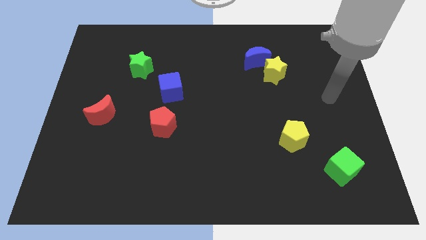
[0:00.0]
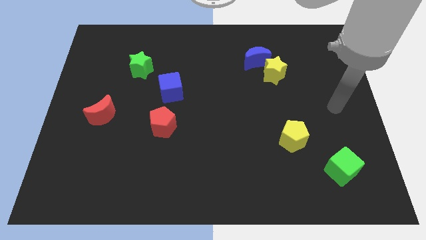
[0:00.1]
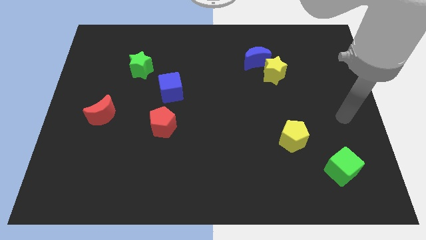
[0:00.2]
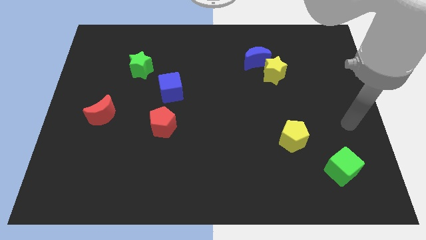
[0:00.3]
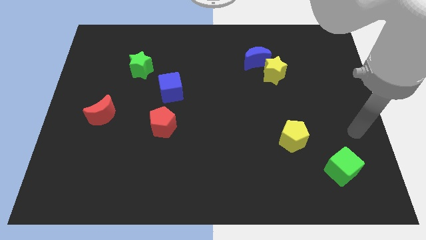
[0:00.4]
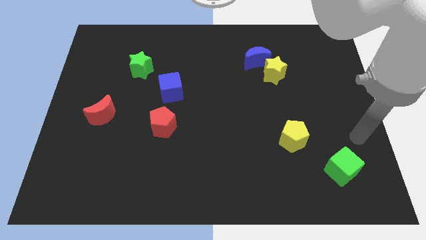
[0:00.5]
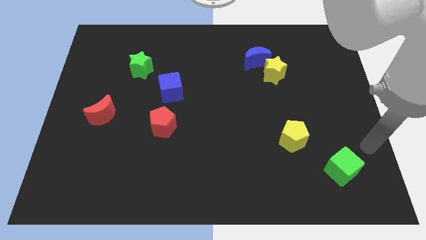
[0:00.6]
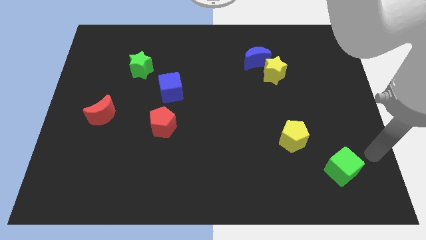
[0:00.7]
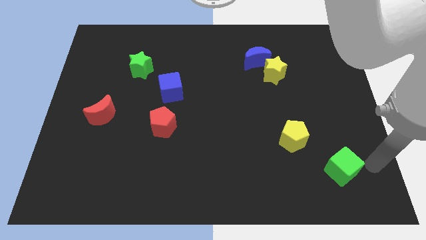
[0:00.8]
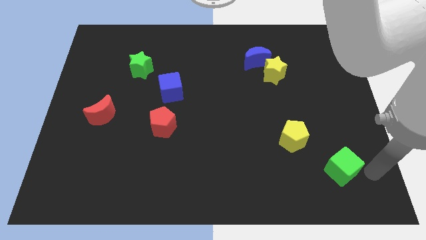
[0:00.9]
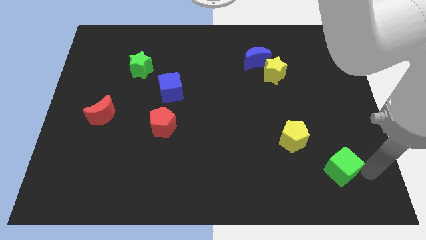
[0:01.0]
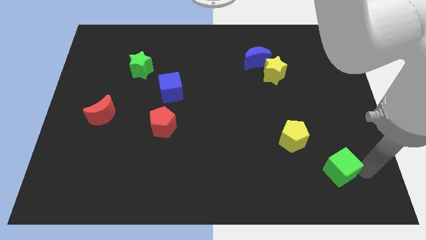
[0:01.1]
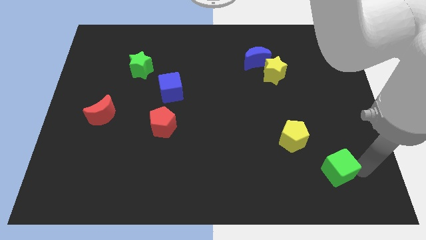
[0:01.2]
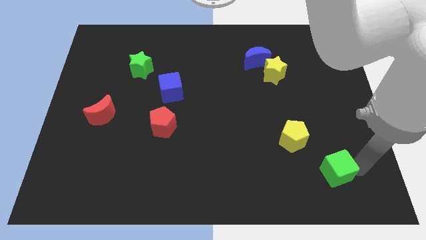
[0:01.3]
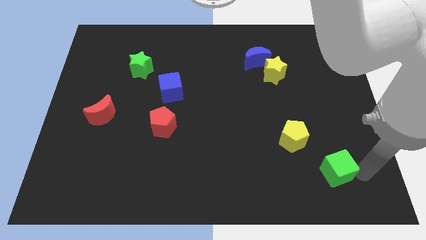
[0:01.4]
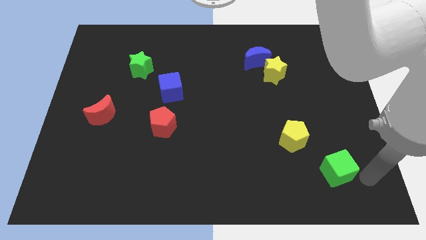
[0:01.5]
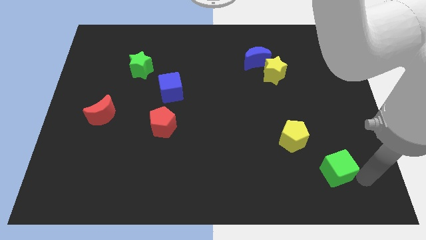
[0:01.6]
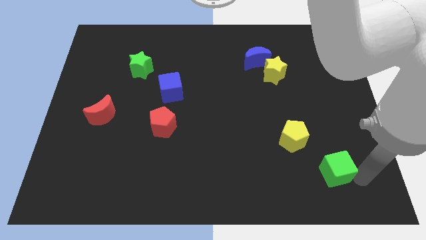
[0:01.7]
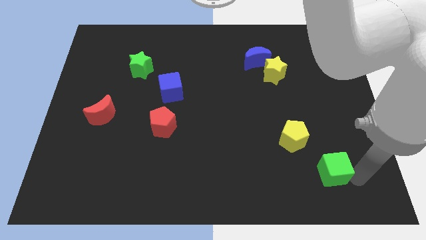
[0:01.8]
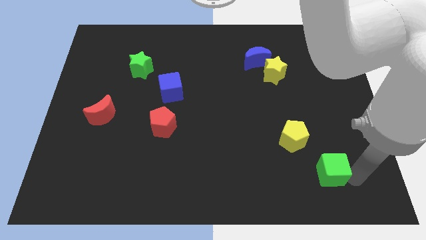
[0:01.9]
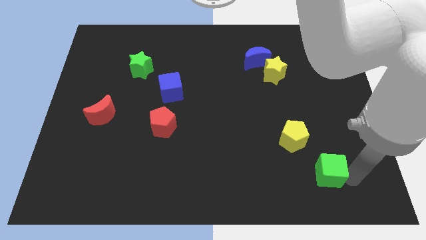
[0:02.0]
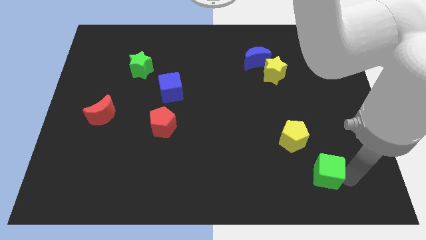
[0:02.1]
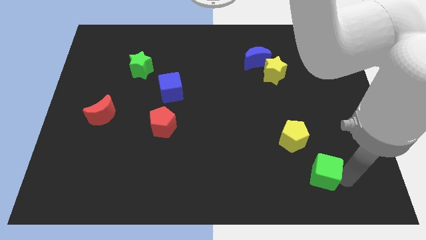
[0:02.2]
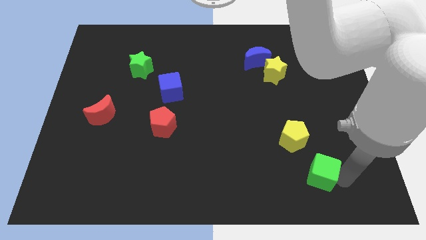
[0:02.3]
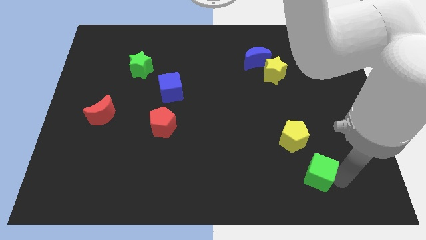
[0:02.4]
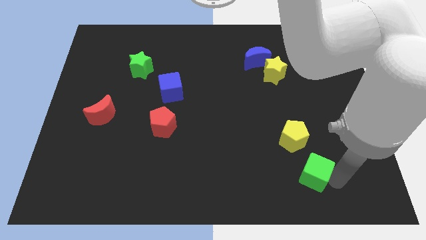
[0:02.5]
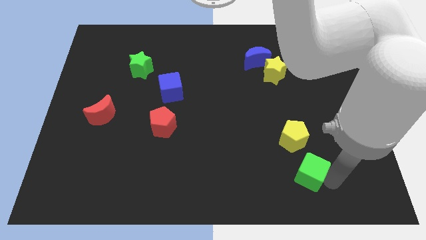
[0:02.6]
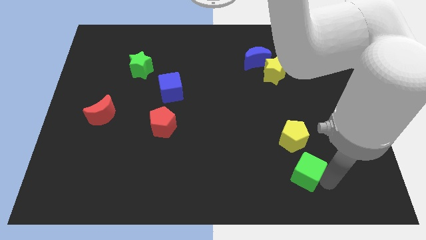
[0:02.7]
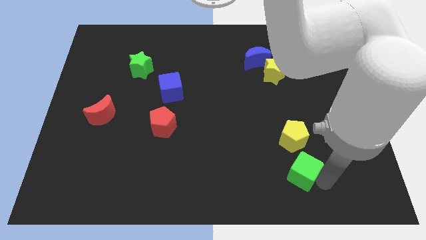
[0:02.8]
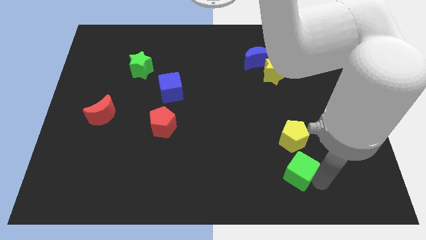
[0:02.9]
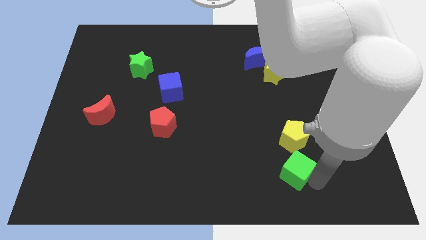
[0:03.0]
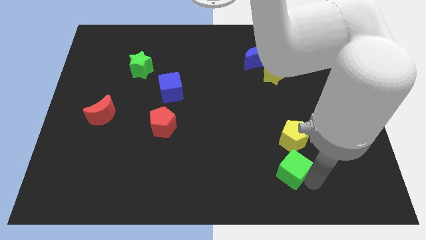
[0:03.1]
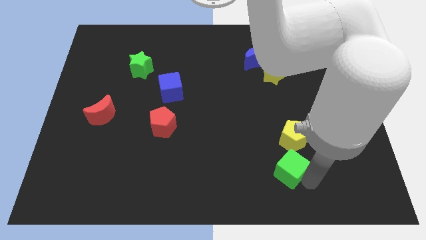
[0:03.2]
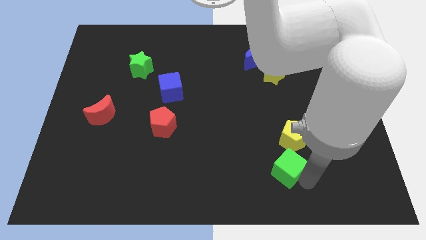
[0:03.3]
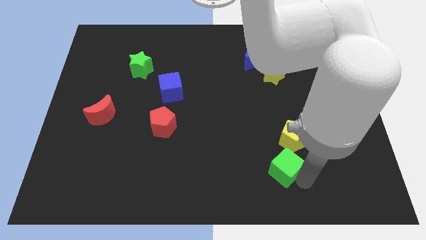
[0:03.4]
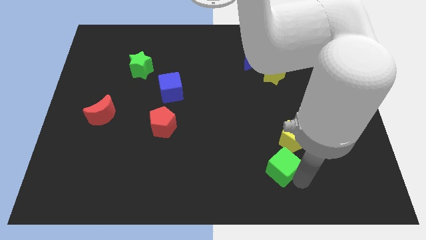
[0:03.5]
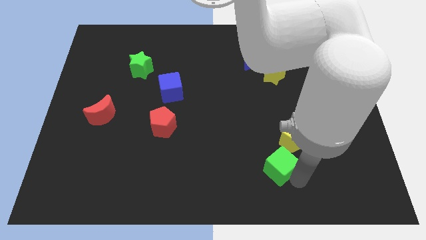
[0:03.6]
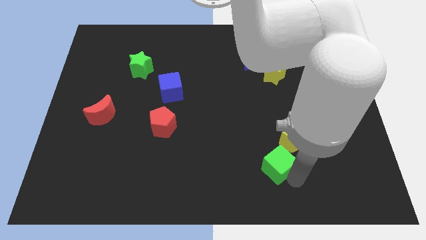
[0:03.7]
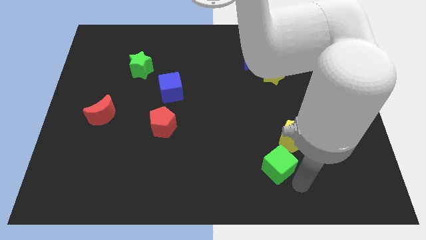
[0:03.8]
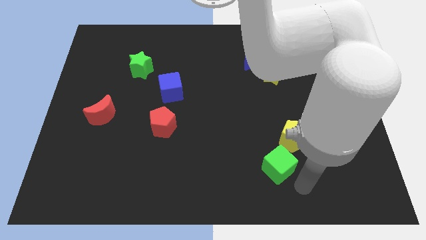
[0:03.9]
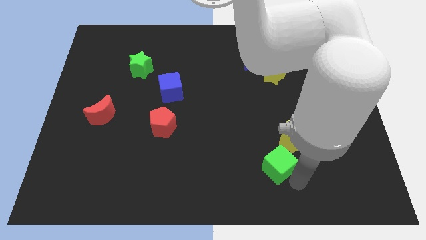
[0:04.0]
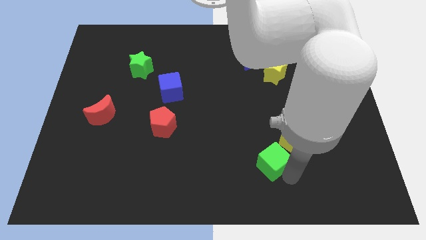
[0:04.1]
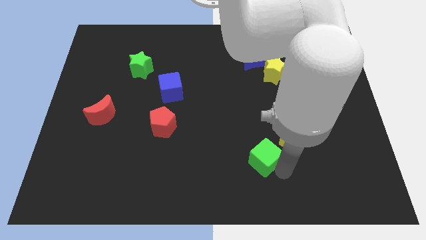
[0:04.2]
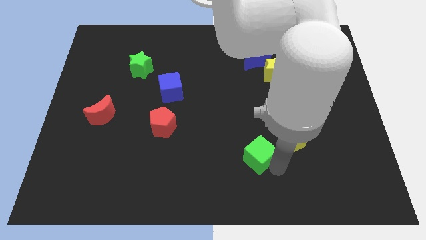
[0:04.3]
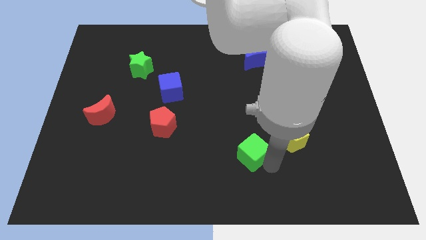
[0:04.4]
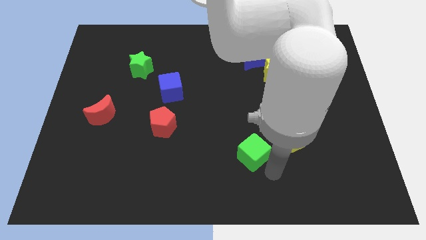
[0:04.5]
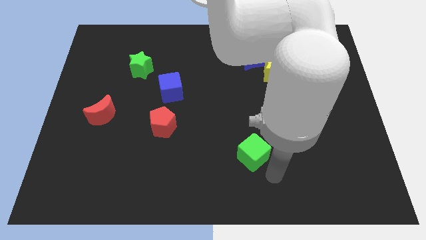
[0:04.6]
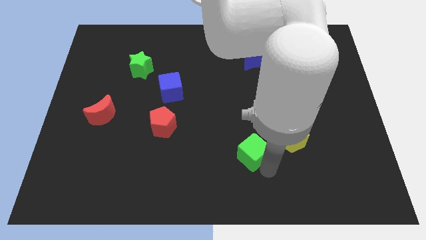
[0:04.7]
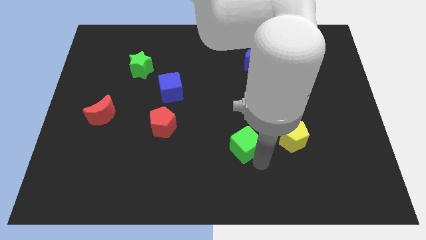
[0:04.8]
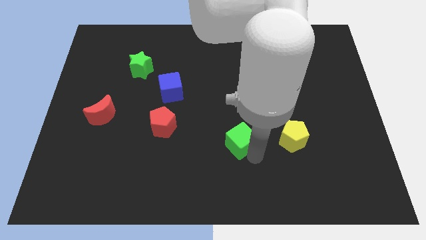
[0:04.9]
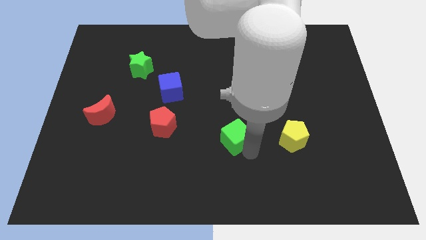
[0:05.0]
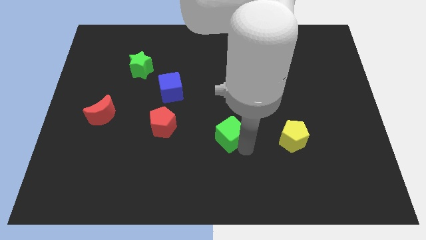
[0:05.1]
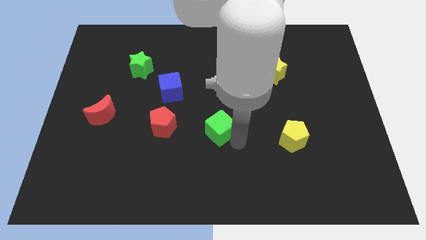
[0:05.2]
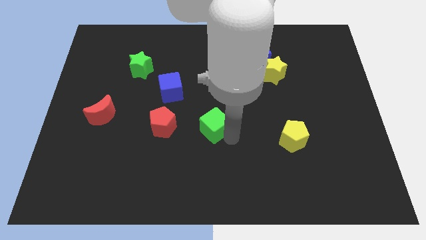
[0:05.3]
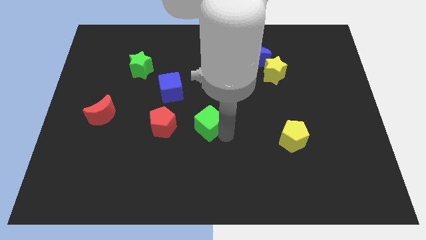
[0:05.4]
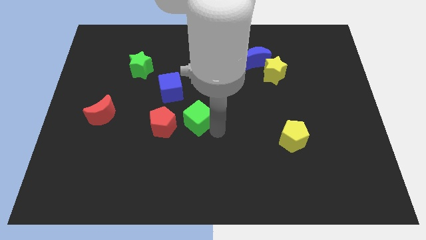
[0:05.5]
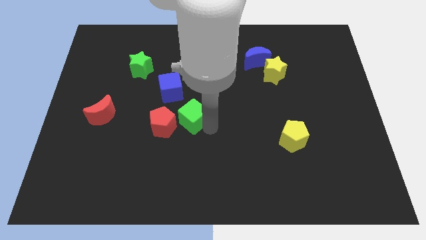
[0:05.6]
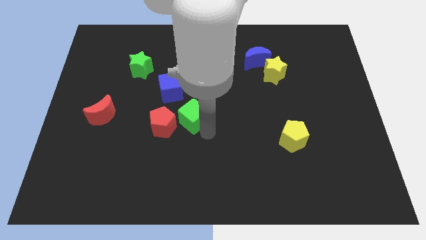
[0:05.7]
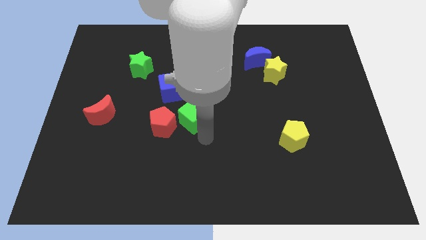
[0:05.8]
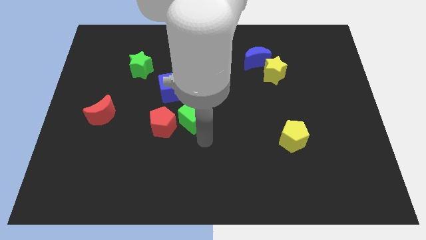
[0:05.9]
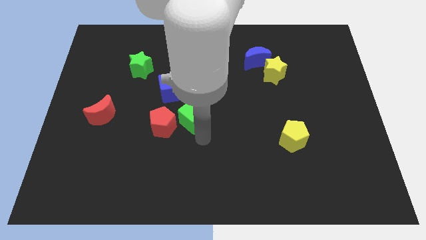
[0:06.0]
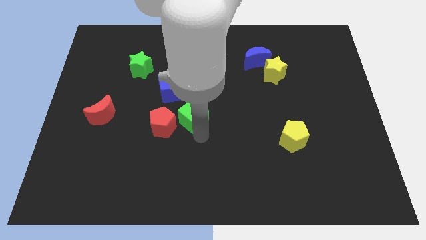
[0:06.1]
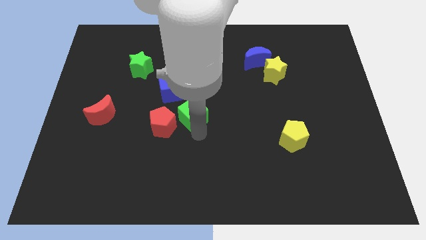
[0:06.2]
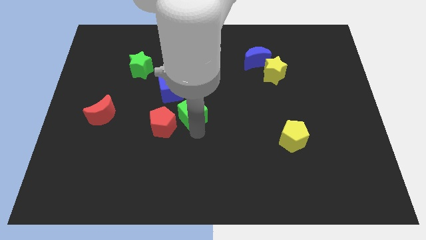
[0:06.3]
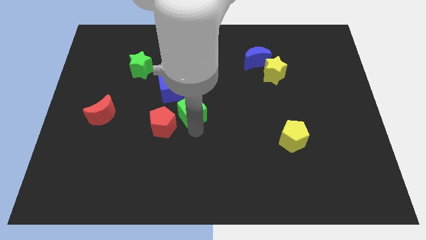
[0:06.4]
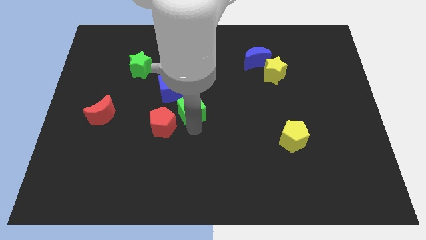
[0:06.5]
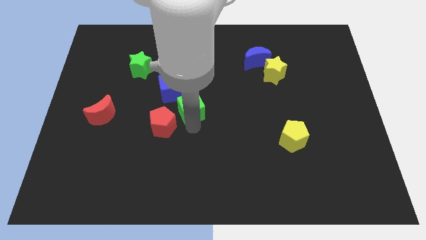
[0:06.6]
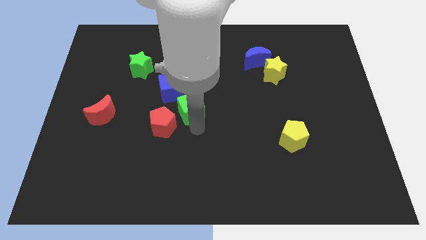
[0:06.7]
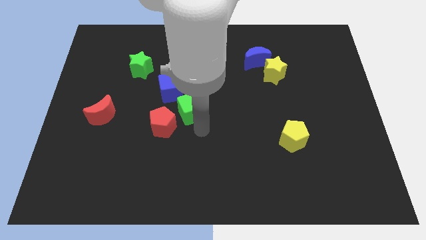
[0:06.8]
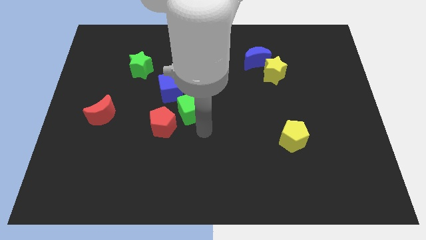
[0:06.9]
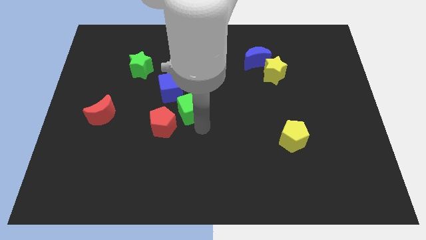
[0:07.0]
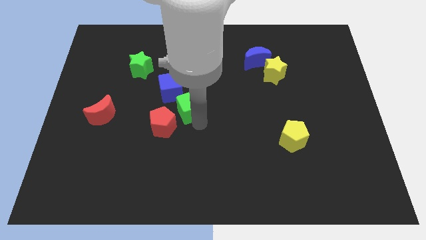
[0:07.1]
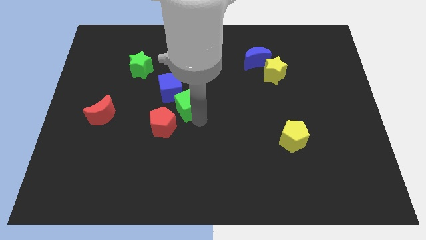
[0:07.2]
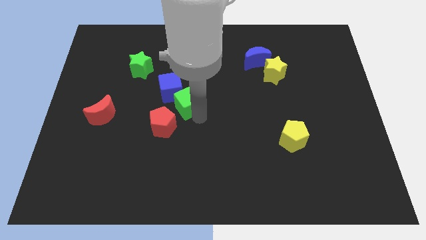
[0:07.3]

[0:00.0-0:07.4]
put the green cube towards the blue cube

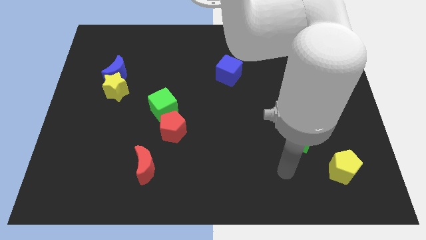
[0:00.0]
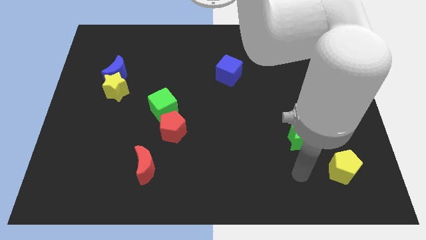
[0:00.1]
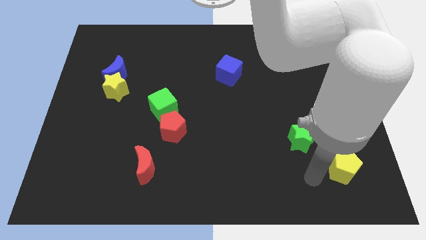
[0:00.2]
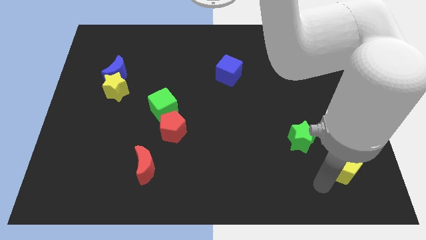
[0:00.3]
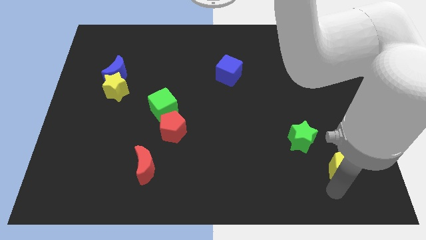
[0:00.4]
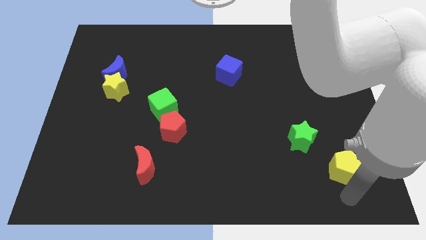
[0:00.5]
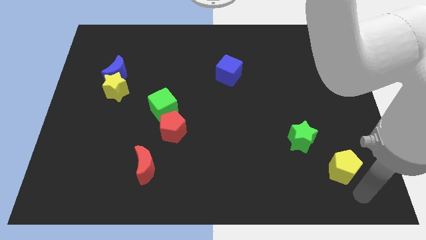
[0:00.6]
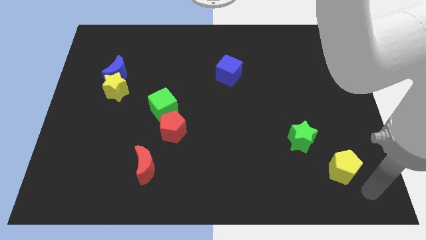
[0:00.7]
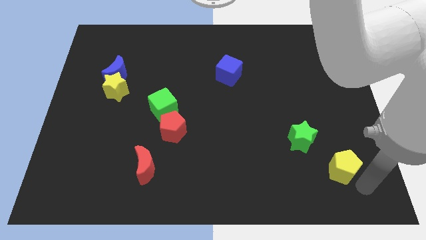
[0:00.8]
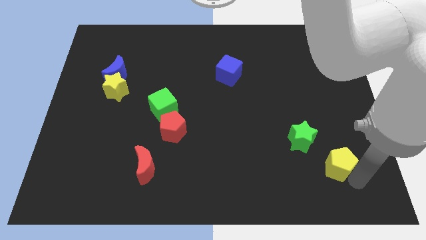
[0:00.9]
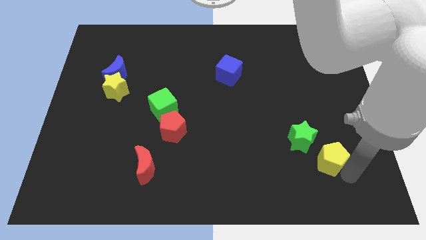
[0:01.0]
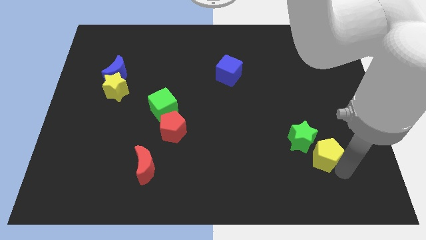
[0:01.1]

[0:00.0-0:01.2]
put the yellow pentagon next to the green star
